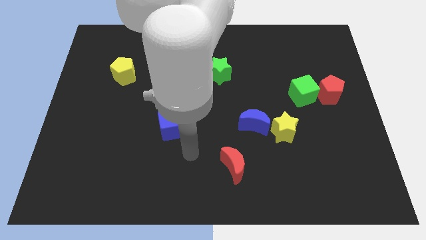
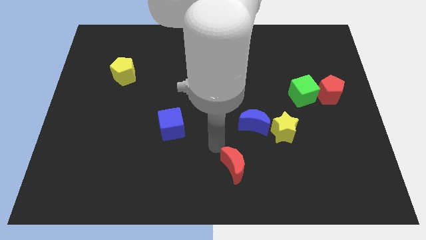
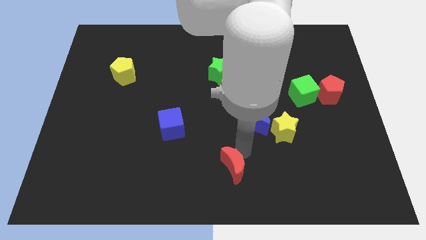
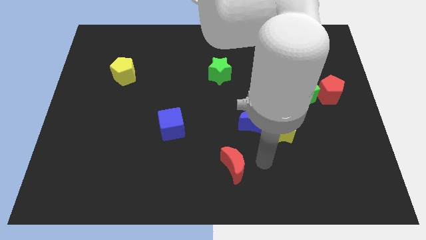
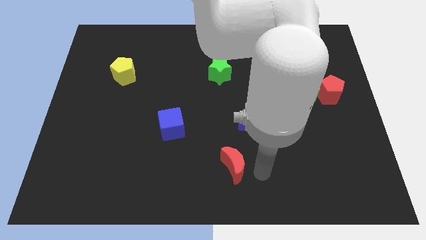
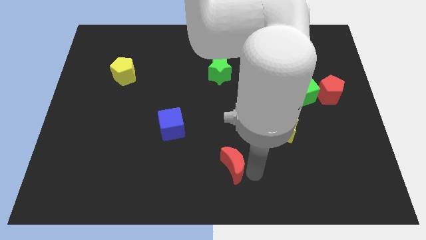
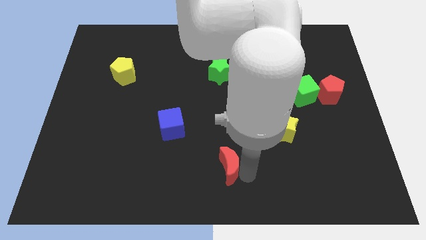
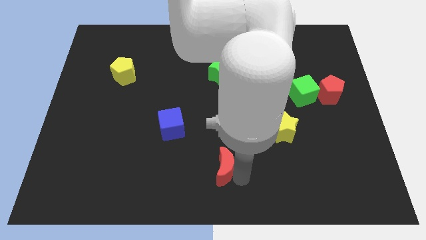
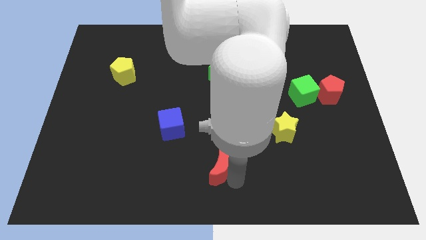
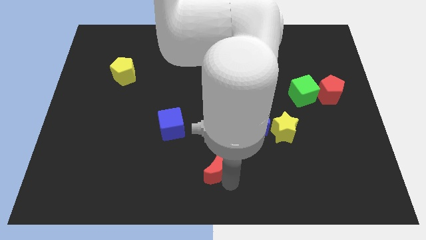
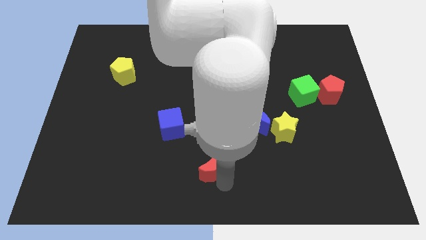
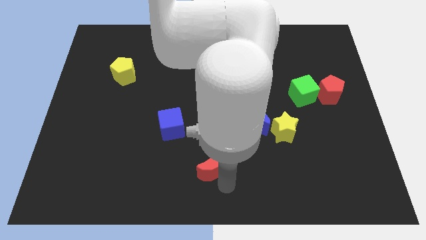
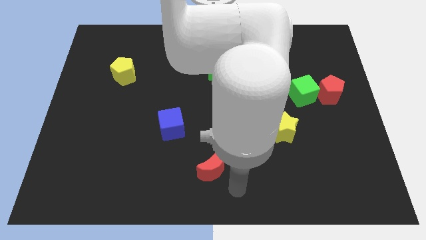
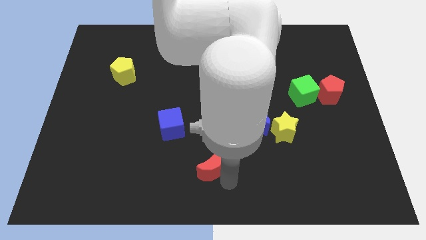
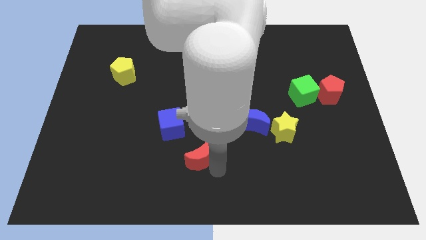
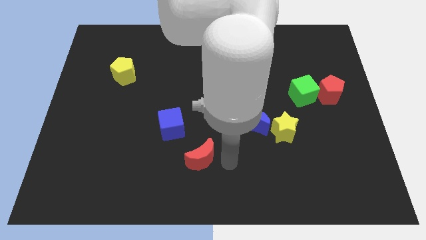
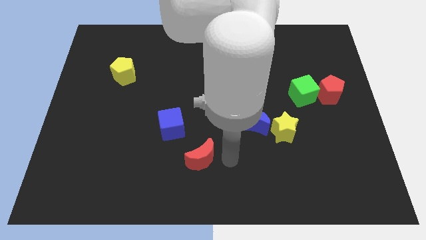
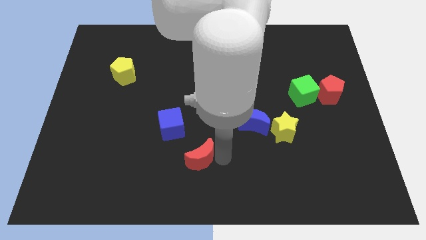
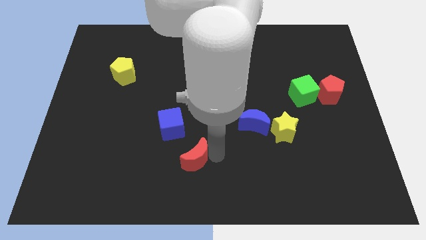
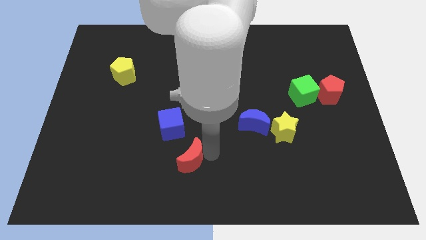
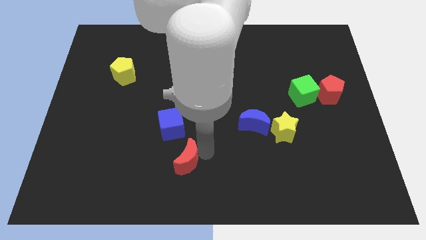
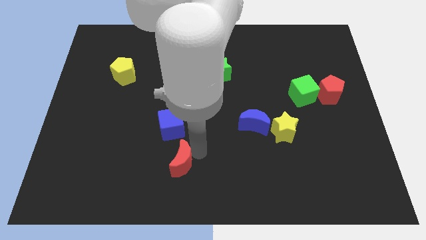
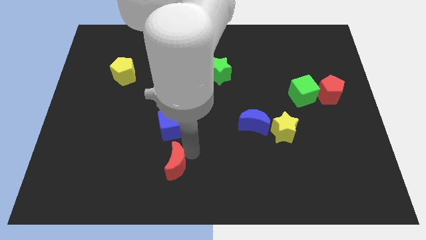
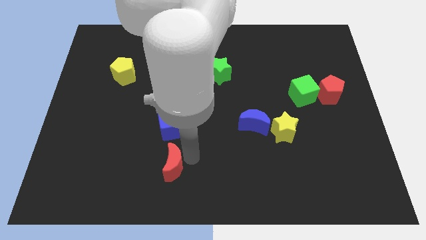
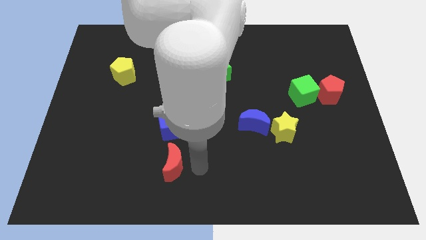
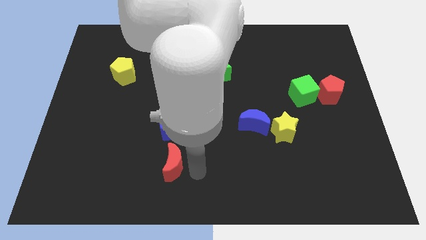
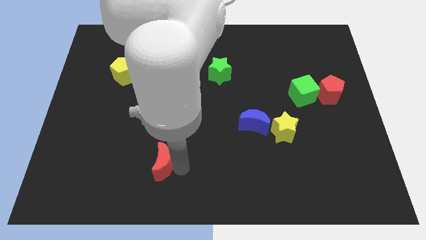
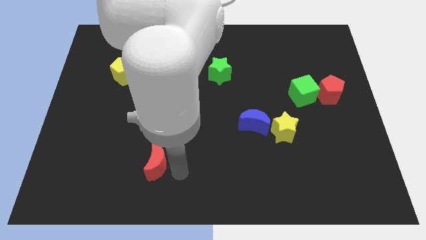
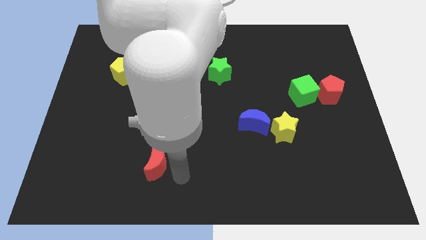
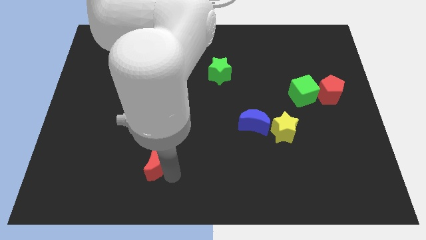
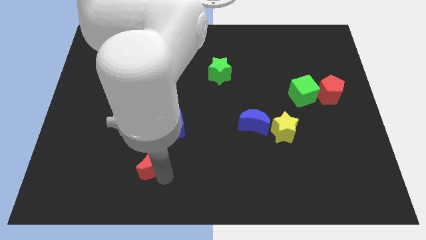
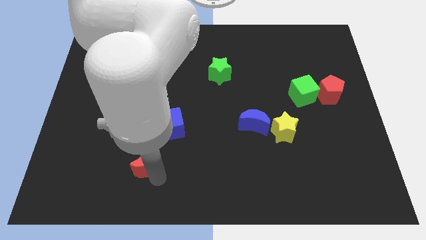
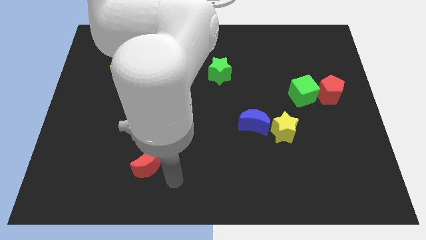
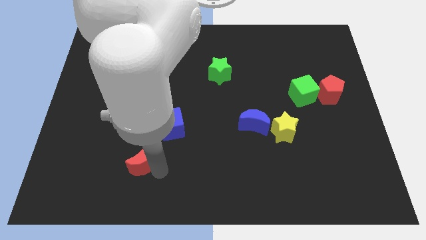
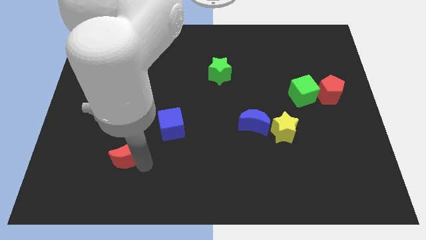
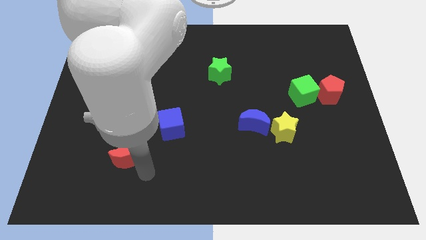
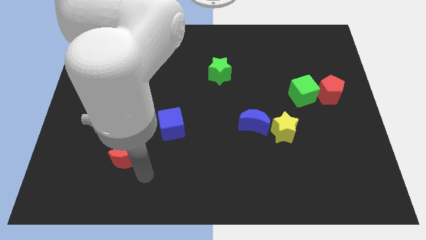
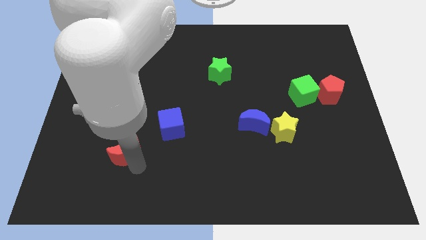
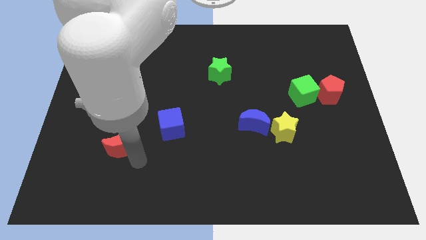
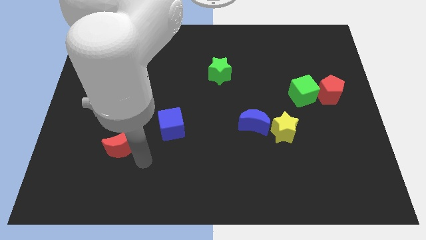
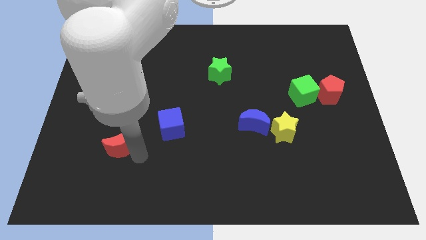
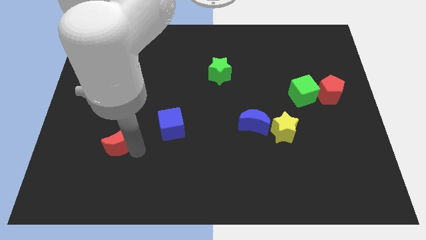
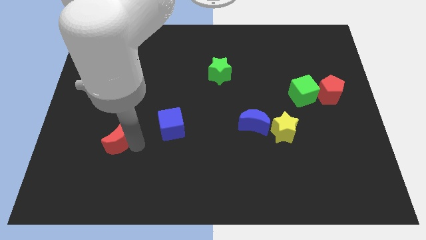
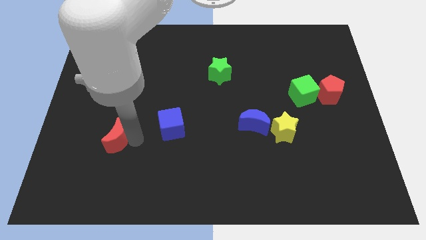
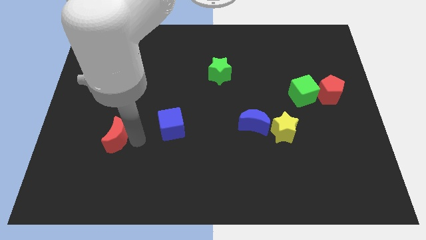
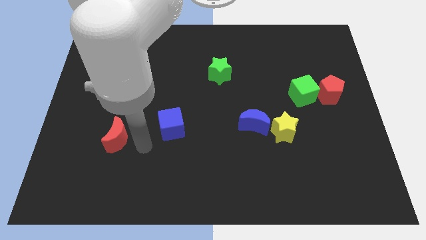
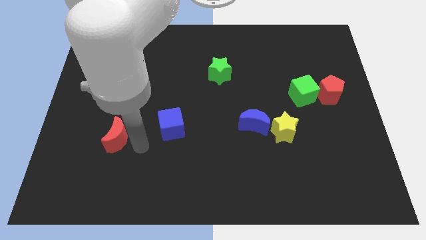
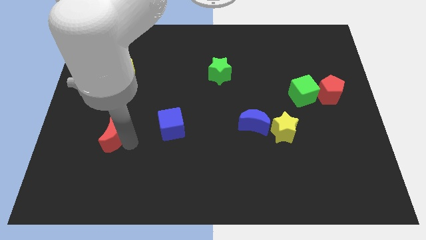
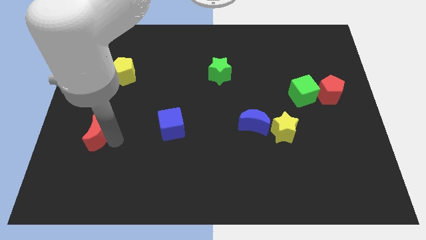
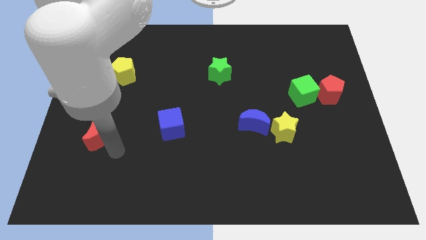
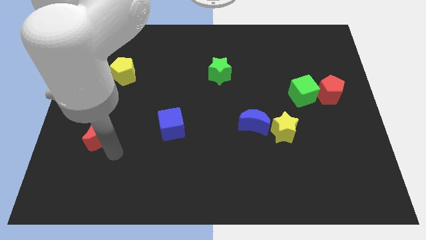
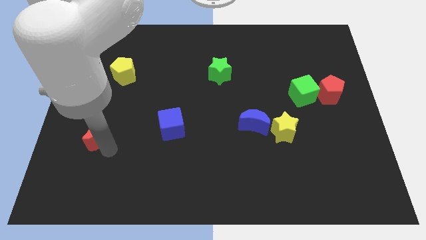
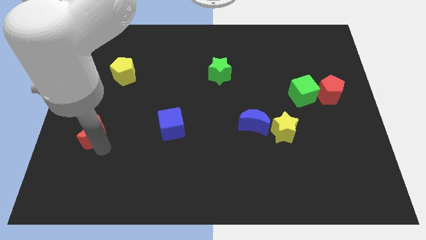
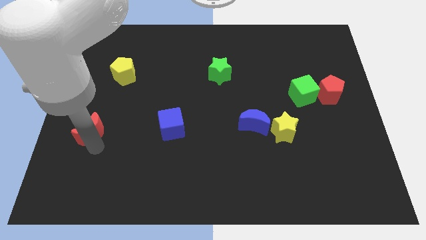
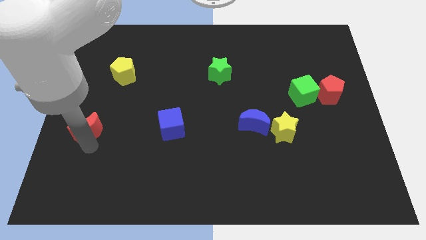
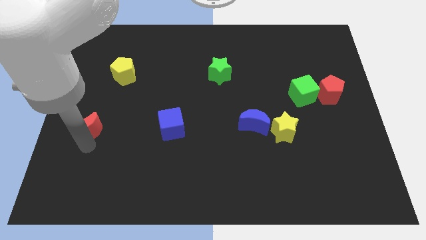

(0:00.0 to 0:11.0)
move the red moon to the left side of the board
